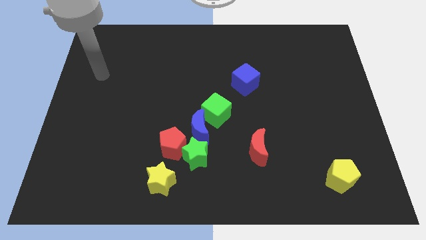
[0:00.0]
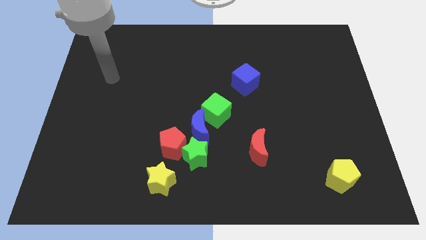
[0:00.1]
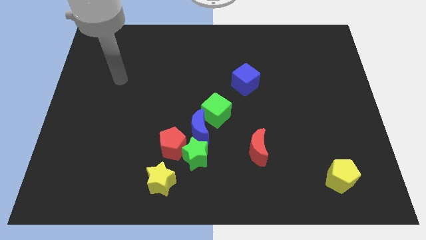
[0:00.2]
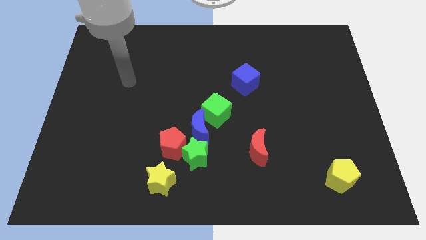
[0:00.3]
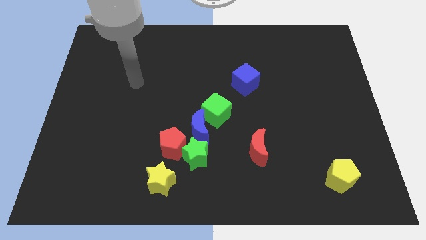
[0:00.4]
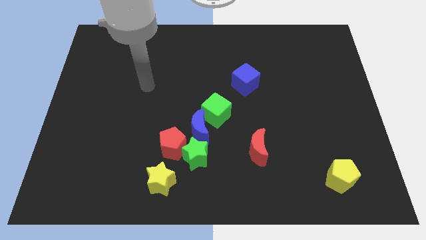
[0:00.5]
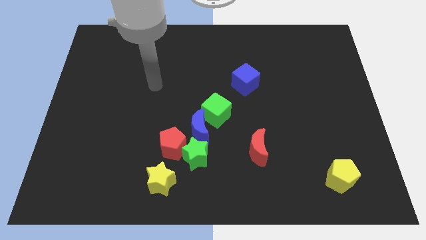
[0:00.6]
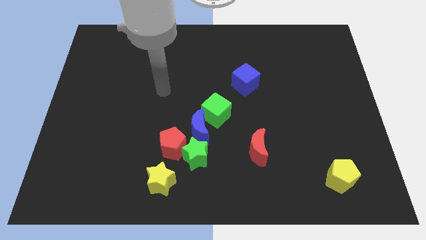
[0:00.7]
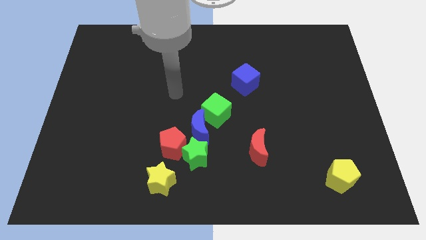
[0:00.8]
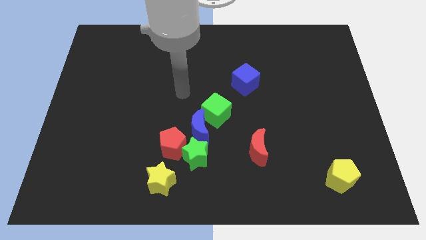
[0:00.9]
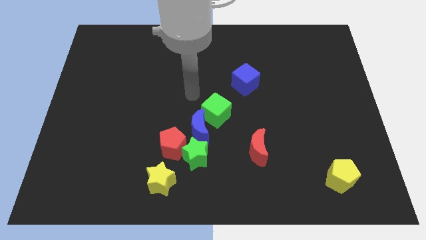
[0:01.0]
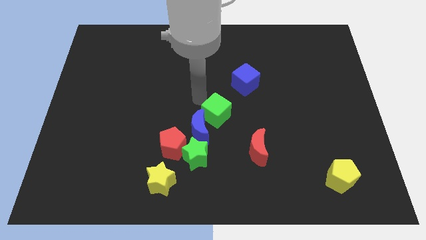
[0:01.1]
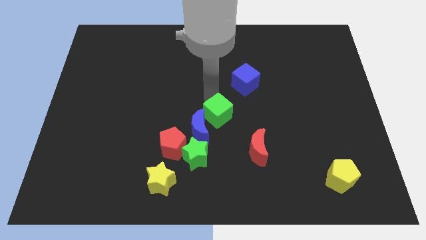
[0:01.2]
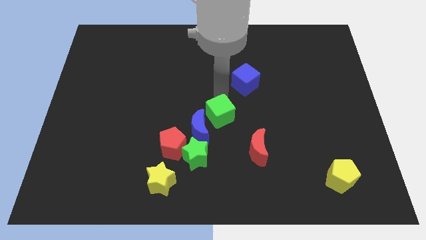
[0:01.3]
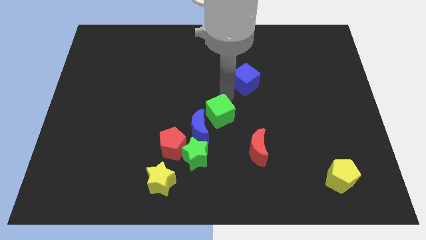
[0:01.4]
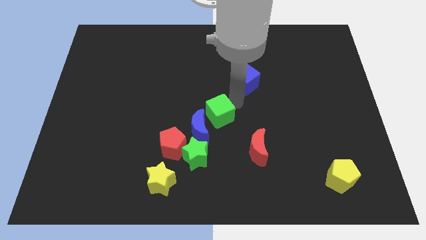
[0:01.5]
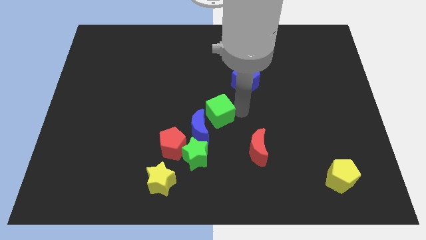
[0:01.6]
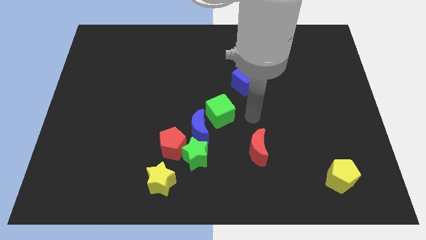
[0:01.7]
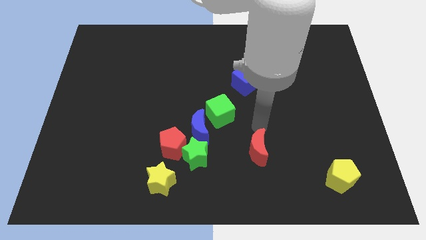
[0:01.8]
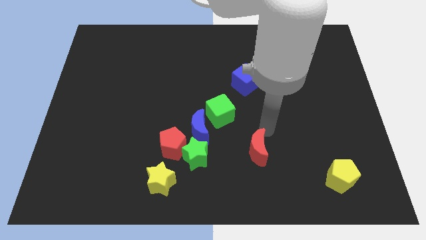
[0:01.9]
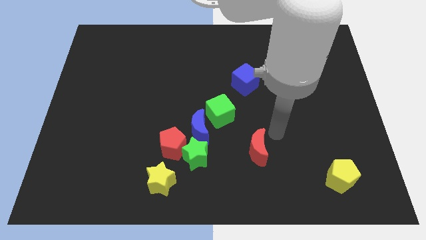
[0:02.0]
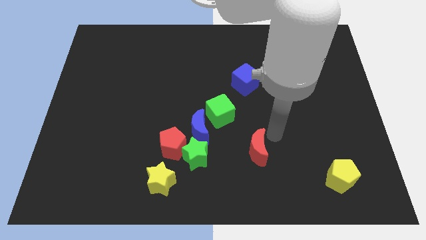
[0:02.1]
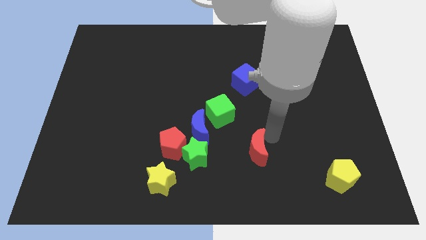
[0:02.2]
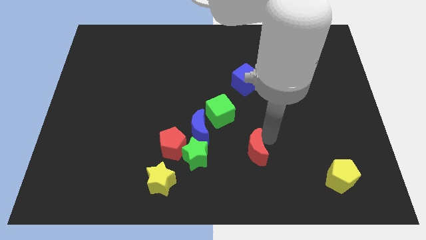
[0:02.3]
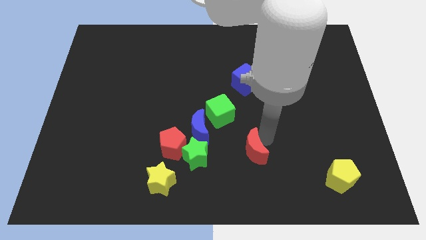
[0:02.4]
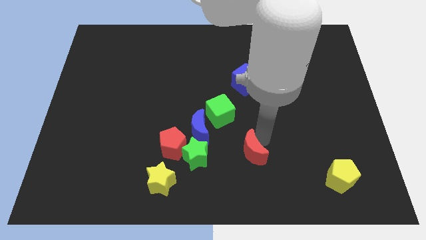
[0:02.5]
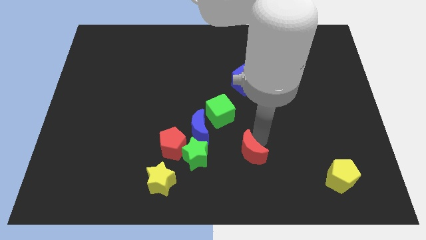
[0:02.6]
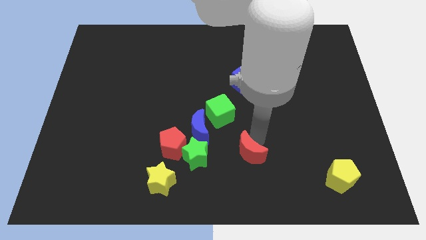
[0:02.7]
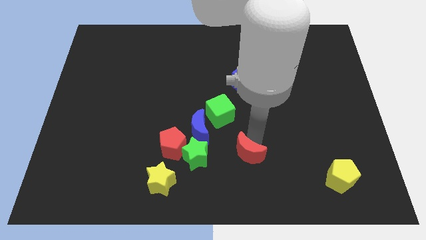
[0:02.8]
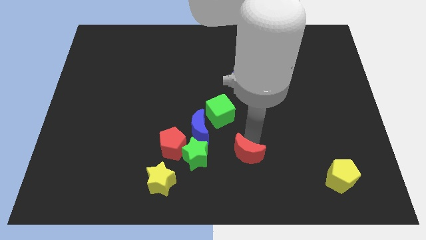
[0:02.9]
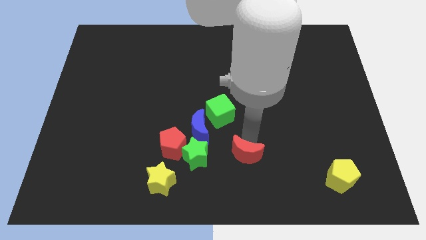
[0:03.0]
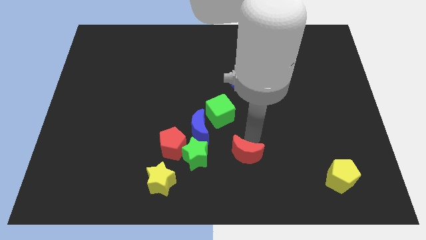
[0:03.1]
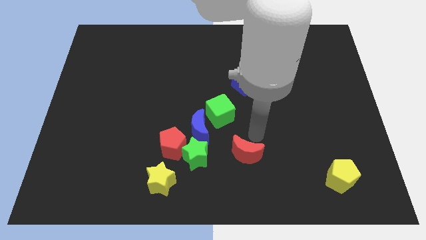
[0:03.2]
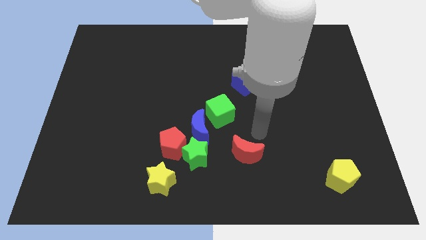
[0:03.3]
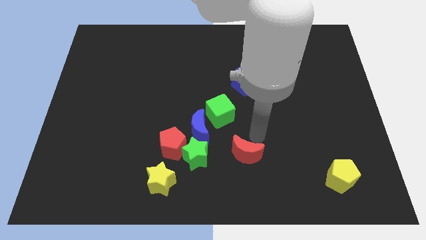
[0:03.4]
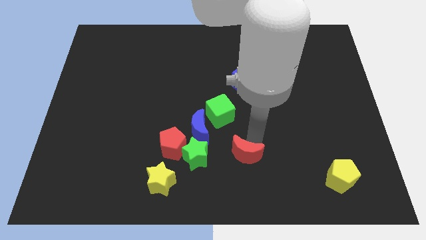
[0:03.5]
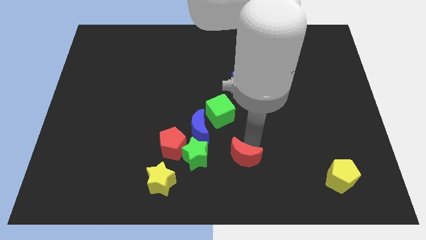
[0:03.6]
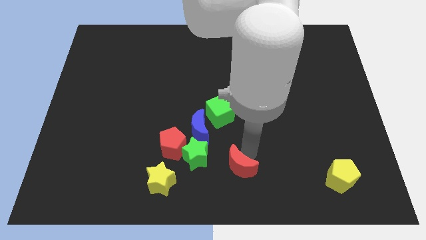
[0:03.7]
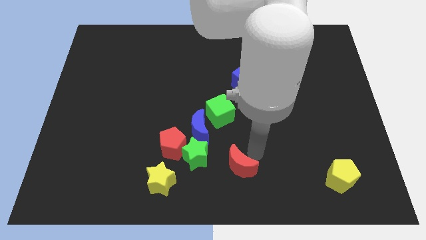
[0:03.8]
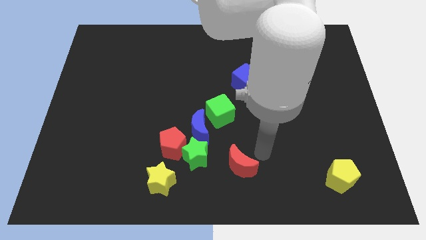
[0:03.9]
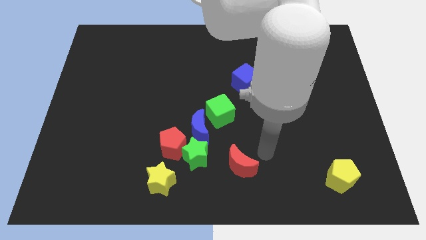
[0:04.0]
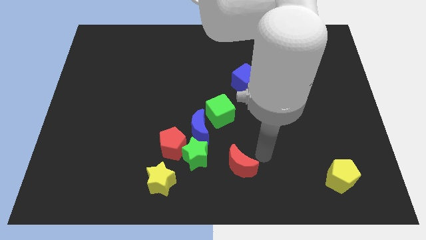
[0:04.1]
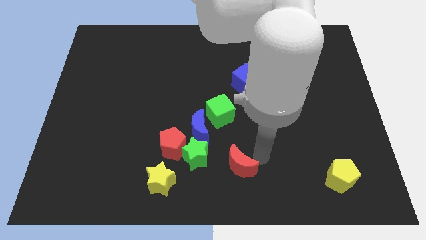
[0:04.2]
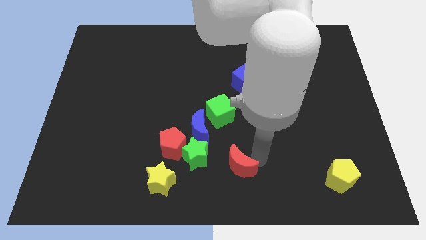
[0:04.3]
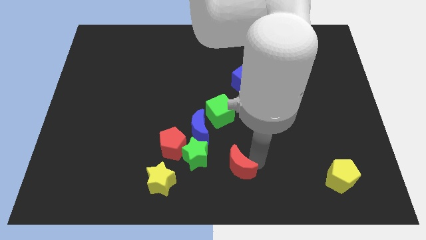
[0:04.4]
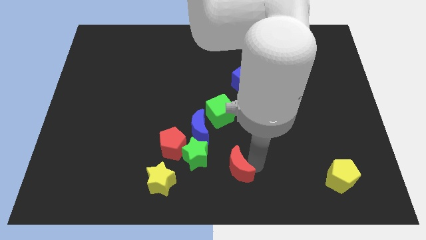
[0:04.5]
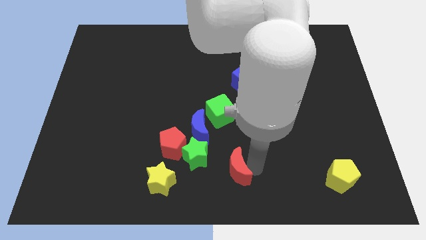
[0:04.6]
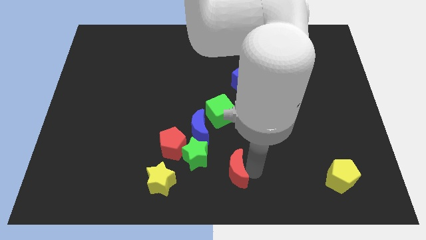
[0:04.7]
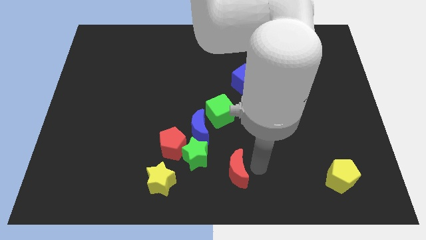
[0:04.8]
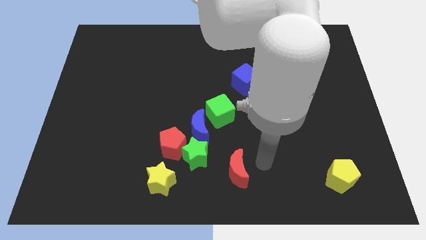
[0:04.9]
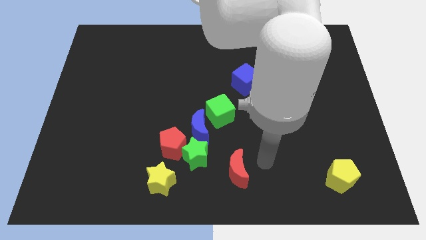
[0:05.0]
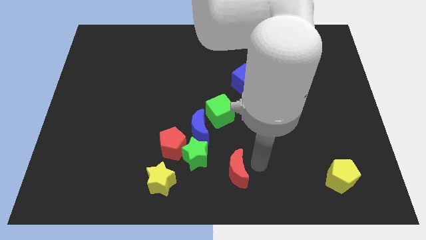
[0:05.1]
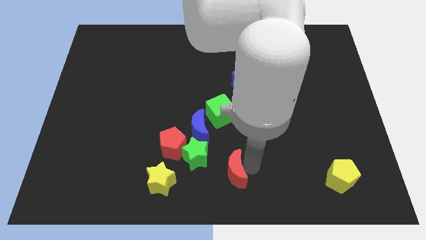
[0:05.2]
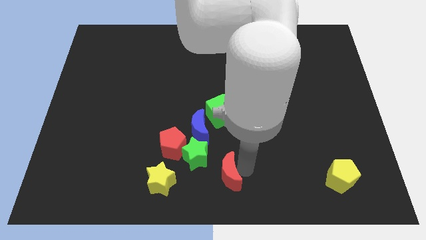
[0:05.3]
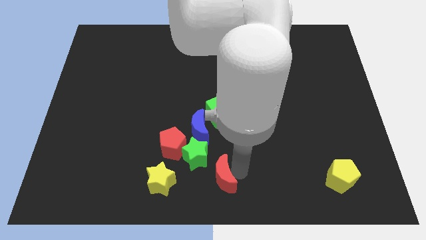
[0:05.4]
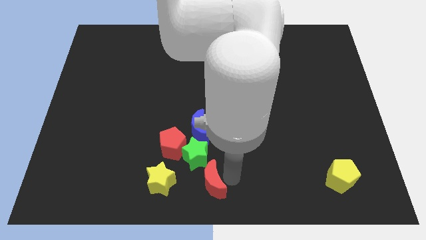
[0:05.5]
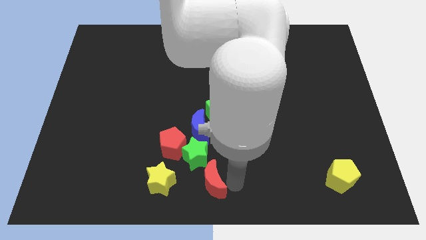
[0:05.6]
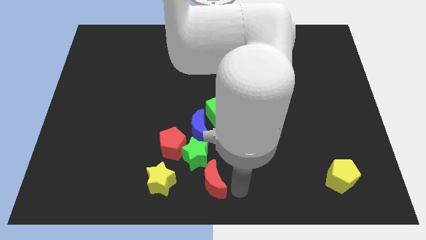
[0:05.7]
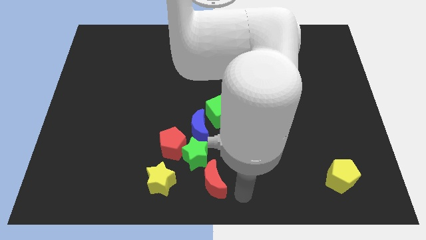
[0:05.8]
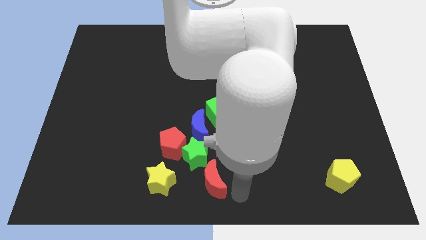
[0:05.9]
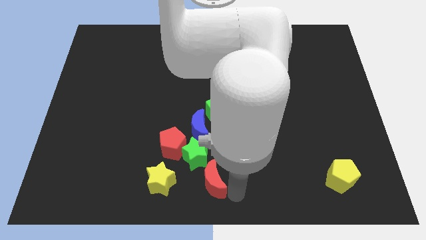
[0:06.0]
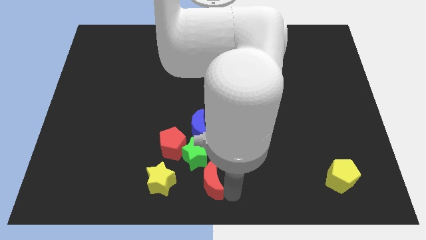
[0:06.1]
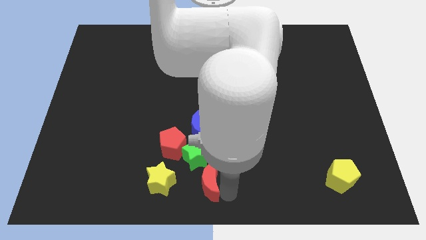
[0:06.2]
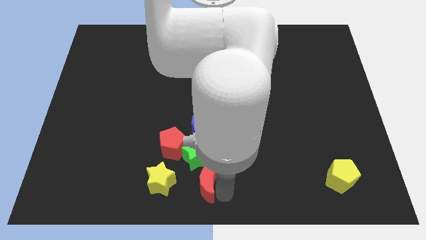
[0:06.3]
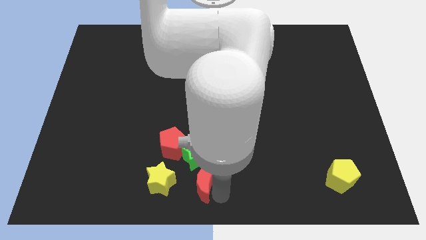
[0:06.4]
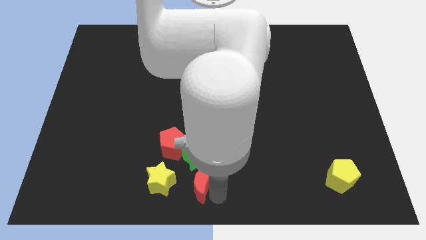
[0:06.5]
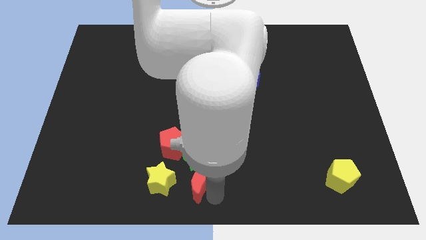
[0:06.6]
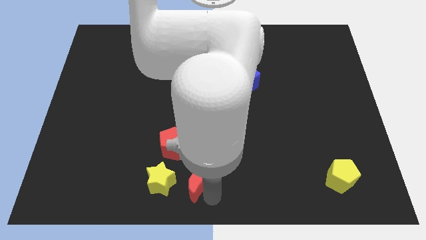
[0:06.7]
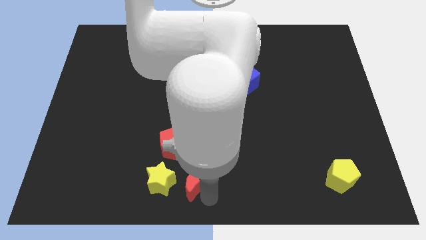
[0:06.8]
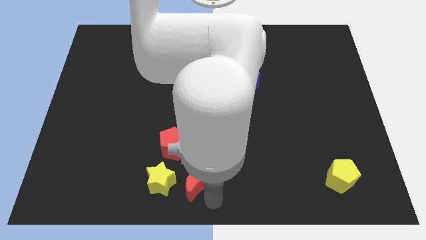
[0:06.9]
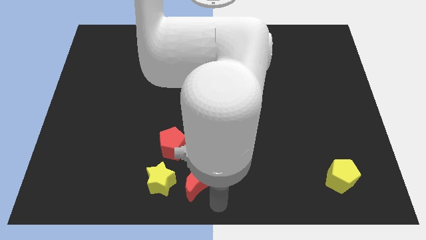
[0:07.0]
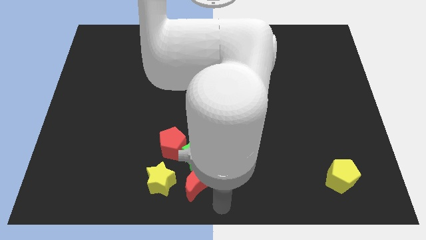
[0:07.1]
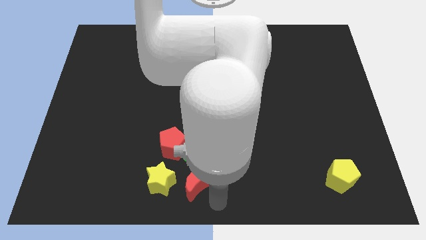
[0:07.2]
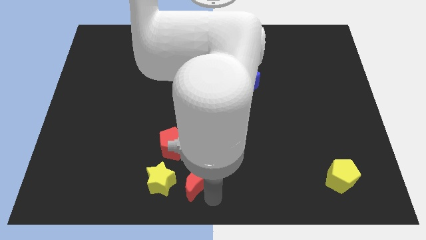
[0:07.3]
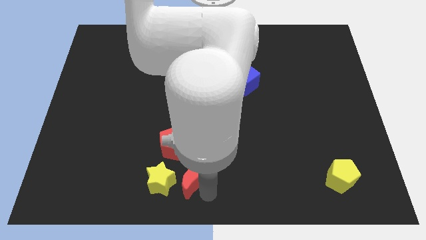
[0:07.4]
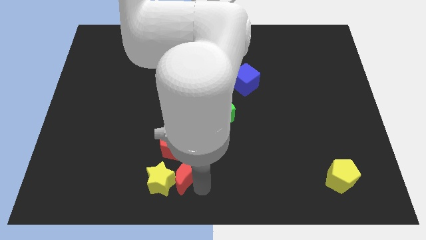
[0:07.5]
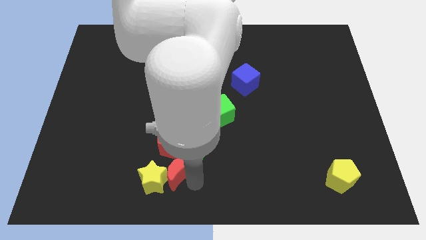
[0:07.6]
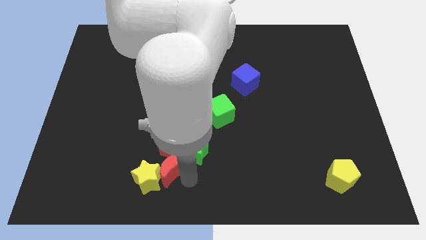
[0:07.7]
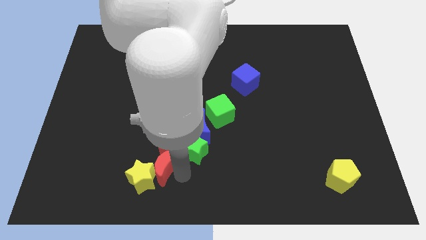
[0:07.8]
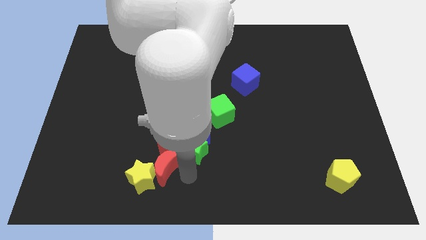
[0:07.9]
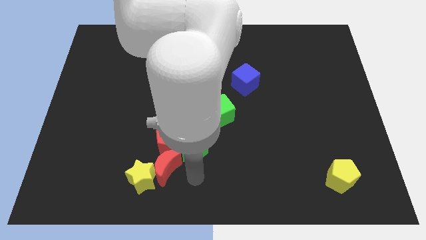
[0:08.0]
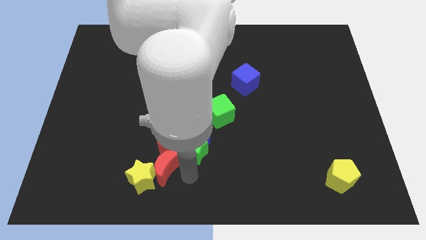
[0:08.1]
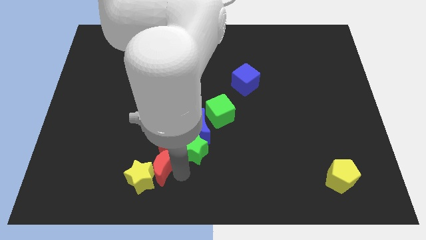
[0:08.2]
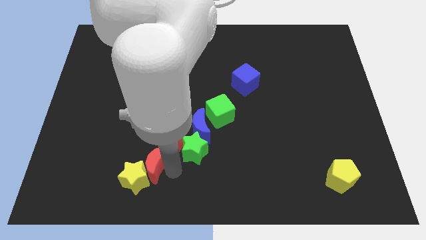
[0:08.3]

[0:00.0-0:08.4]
push the red moon to the left
